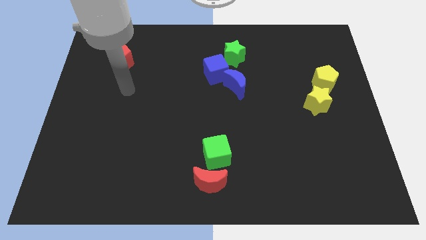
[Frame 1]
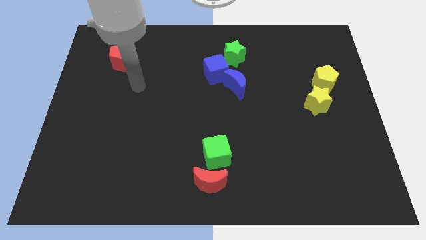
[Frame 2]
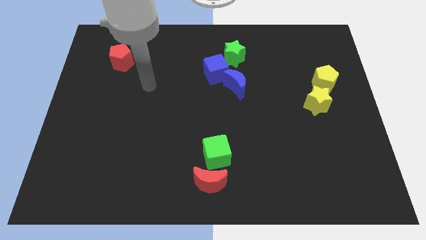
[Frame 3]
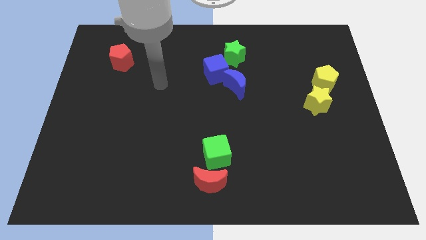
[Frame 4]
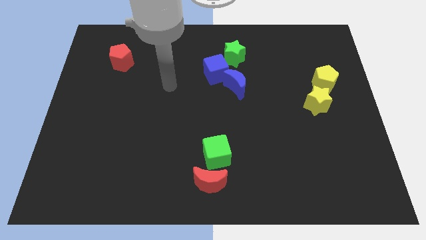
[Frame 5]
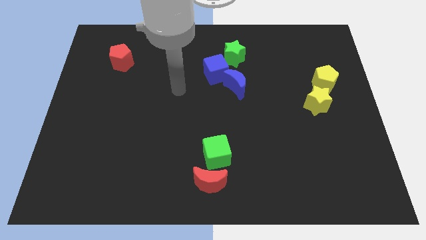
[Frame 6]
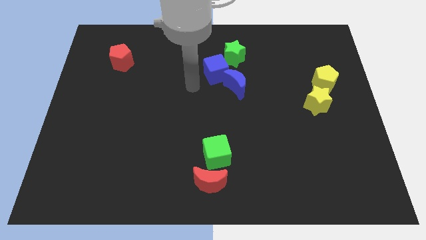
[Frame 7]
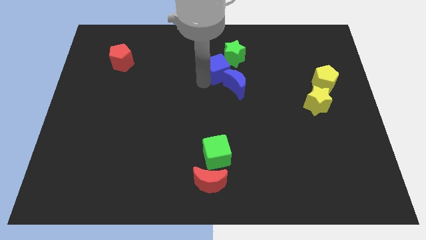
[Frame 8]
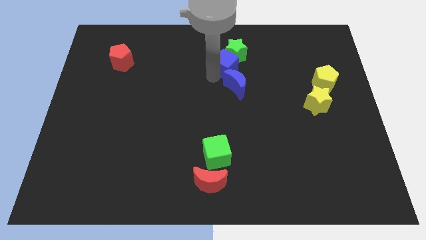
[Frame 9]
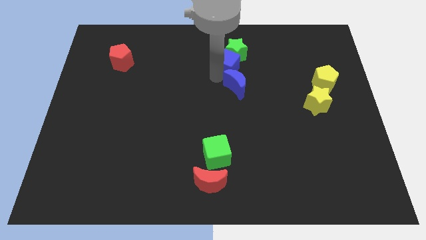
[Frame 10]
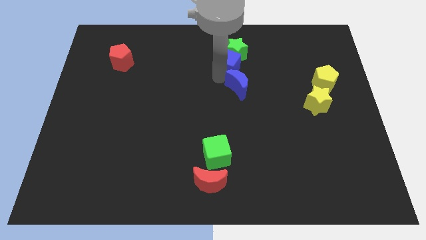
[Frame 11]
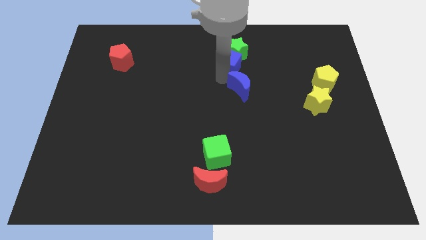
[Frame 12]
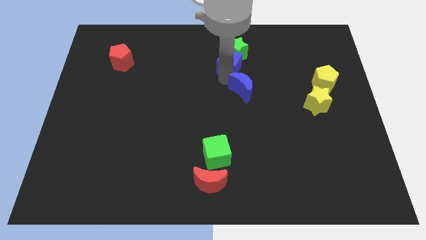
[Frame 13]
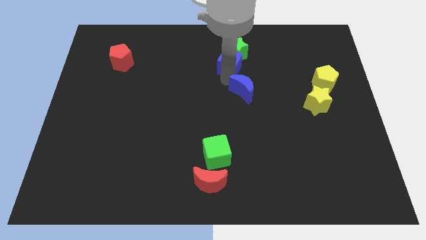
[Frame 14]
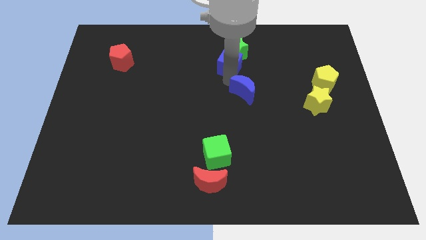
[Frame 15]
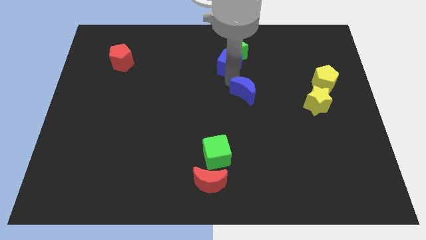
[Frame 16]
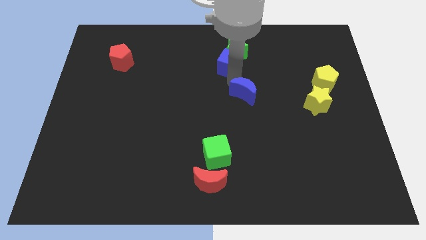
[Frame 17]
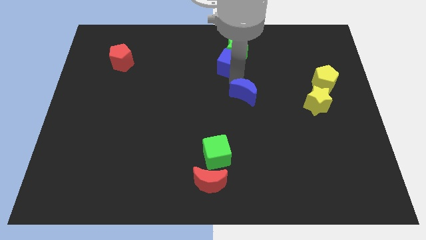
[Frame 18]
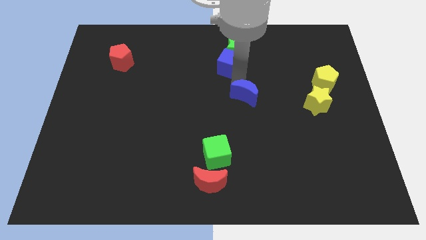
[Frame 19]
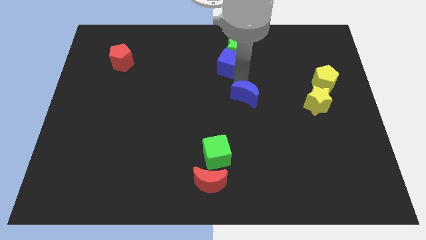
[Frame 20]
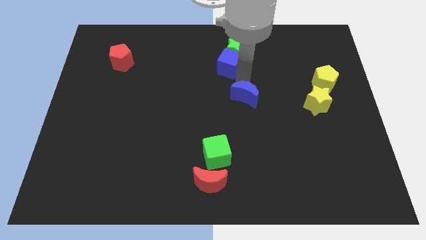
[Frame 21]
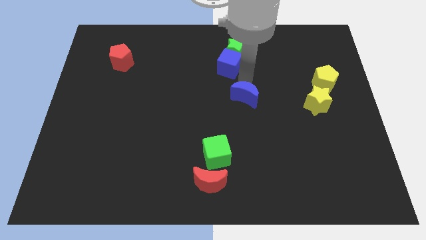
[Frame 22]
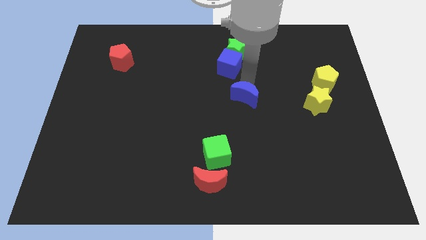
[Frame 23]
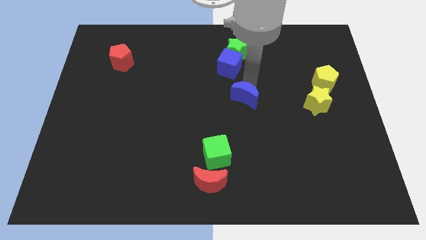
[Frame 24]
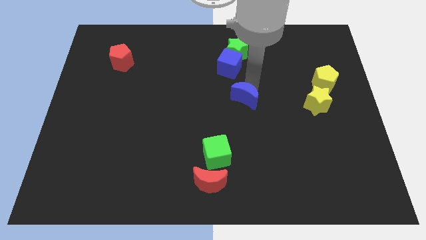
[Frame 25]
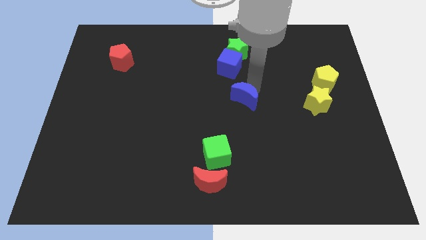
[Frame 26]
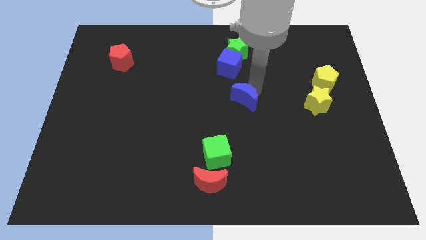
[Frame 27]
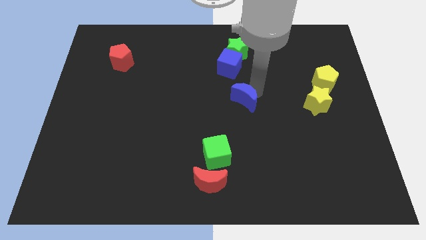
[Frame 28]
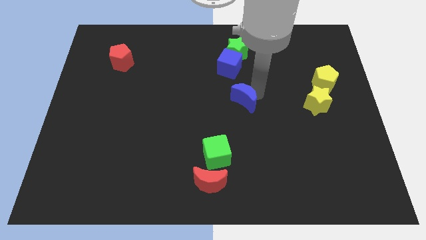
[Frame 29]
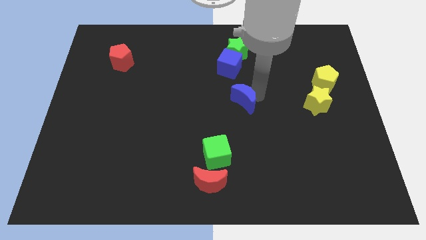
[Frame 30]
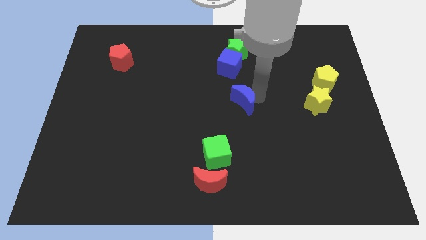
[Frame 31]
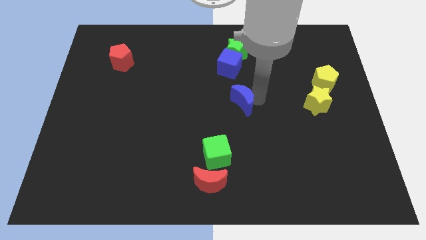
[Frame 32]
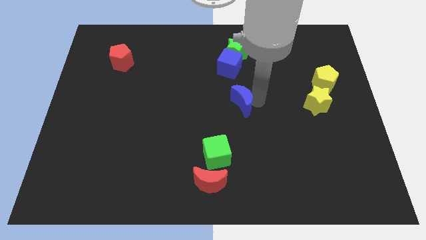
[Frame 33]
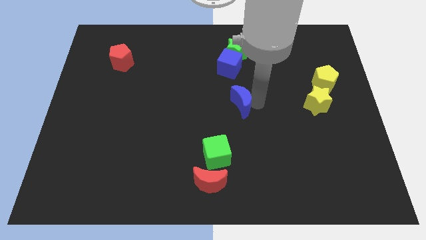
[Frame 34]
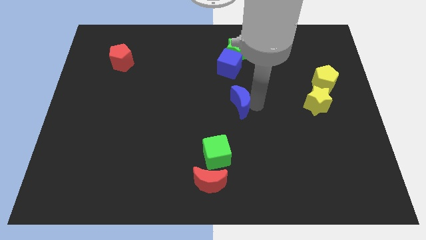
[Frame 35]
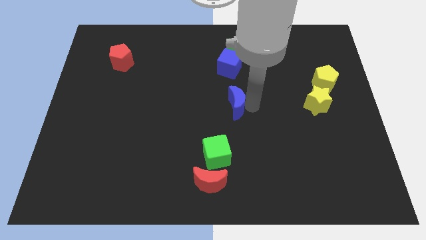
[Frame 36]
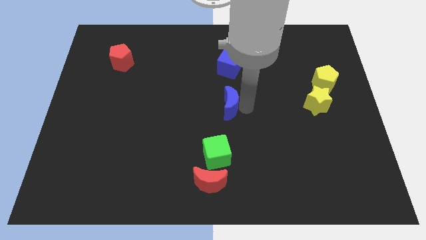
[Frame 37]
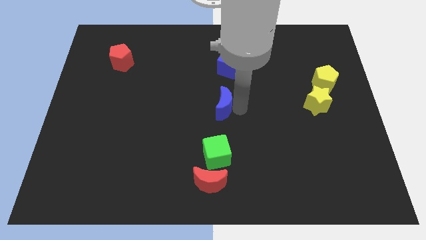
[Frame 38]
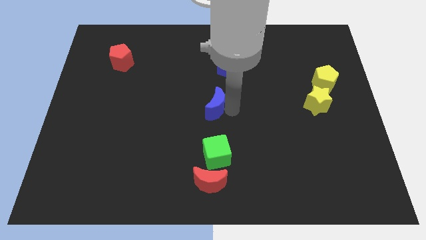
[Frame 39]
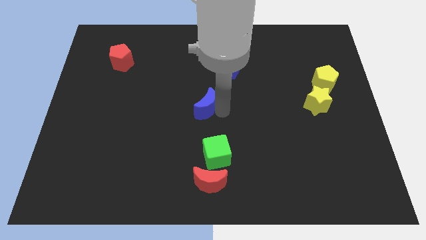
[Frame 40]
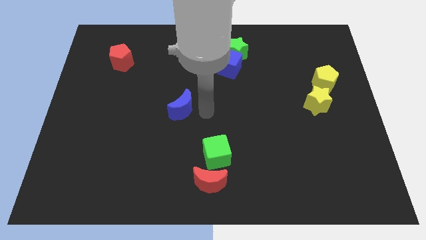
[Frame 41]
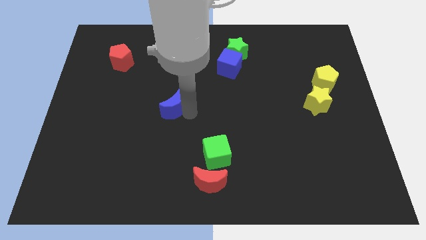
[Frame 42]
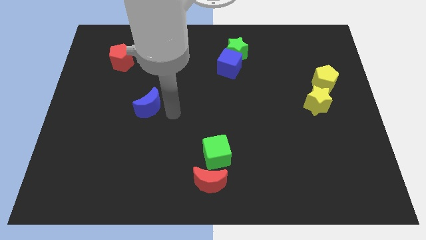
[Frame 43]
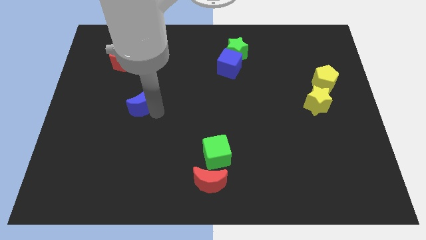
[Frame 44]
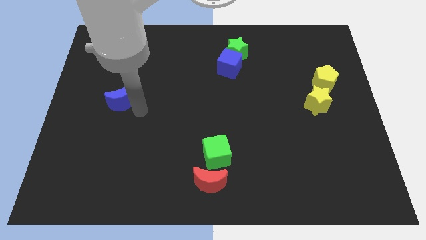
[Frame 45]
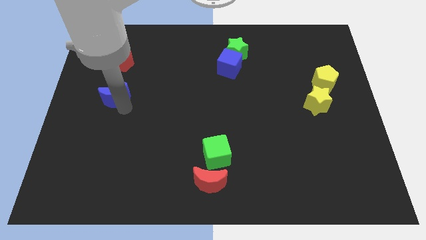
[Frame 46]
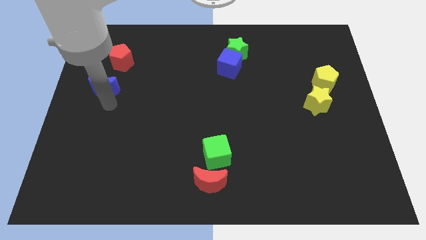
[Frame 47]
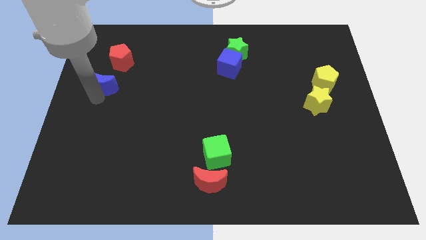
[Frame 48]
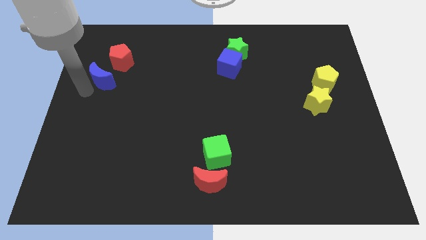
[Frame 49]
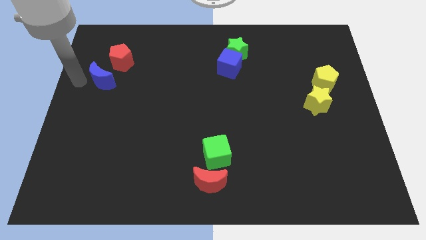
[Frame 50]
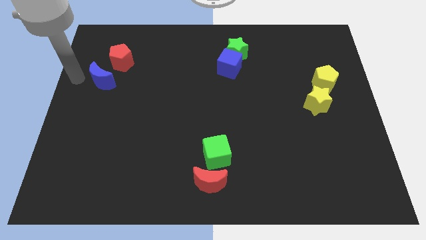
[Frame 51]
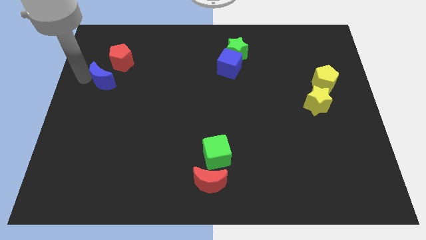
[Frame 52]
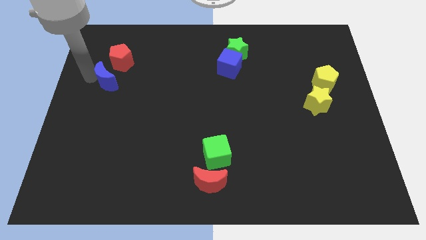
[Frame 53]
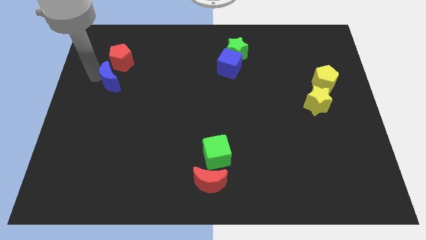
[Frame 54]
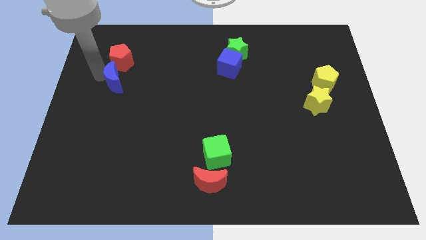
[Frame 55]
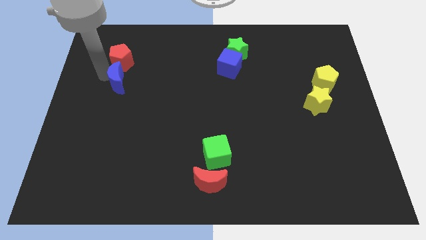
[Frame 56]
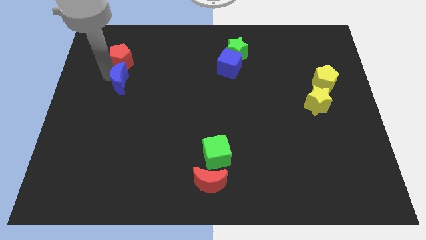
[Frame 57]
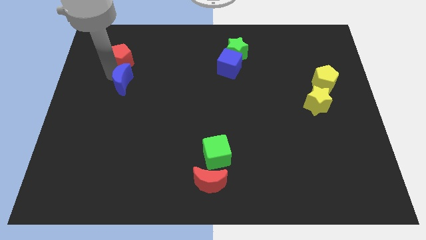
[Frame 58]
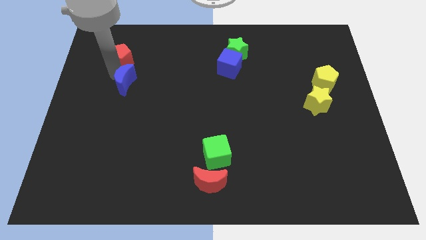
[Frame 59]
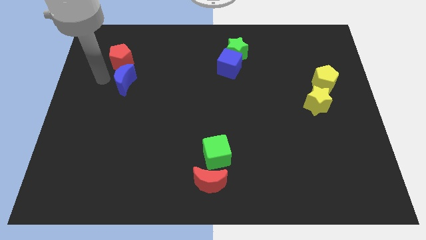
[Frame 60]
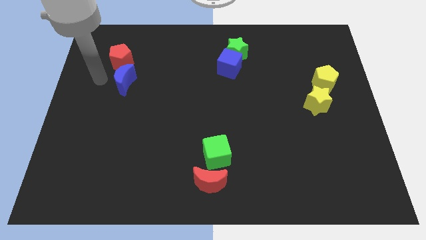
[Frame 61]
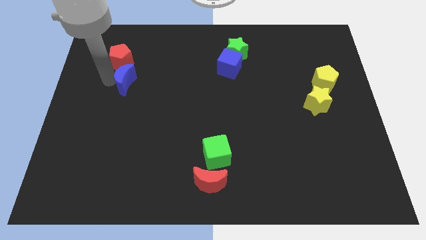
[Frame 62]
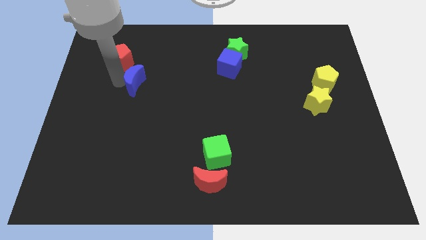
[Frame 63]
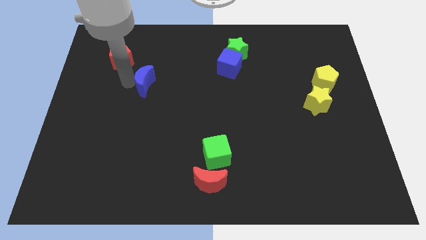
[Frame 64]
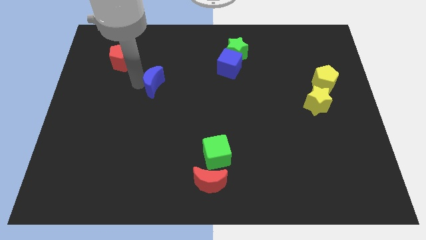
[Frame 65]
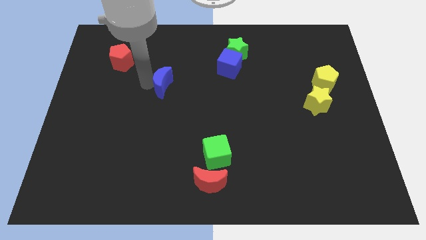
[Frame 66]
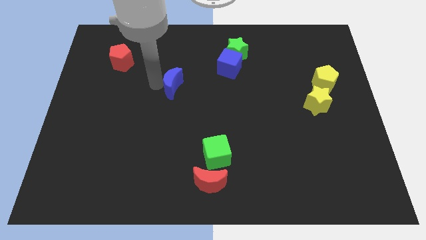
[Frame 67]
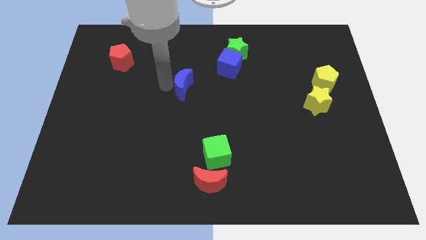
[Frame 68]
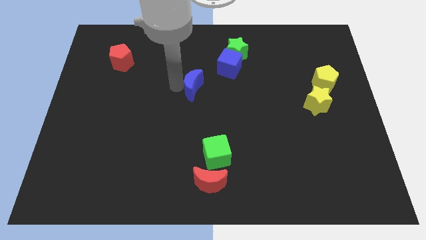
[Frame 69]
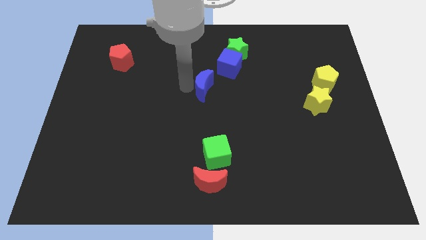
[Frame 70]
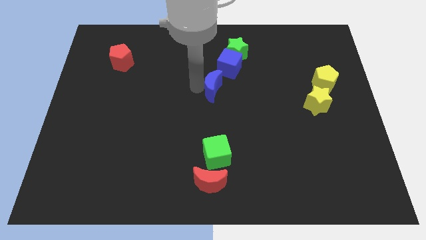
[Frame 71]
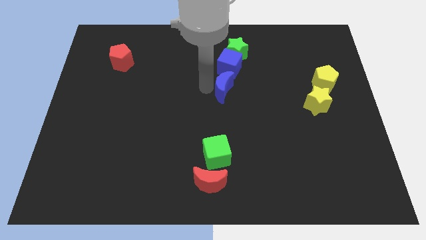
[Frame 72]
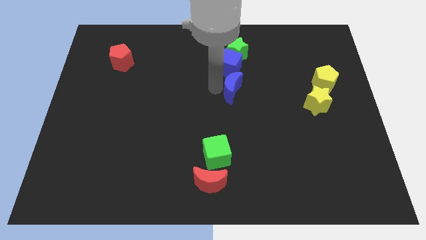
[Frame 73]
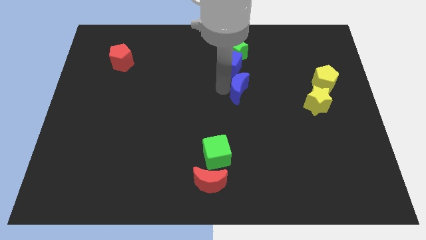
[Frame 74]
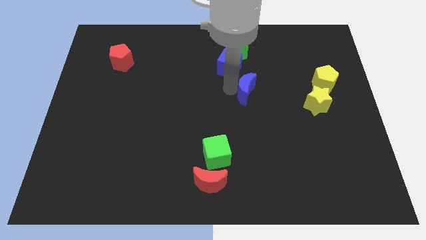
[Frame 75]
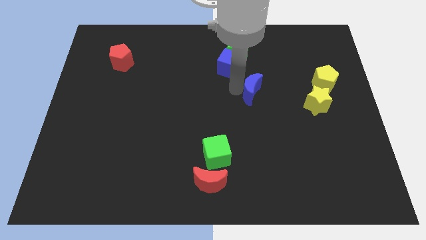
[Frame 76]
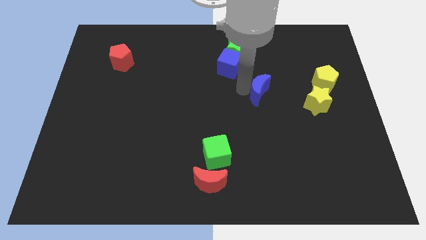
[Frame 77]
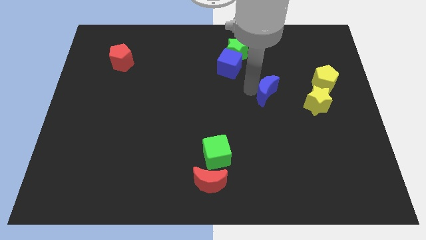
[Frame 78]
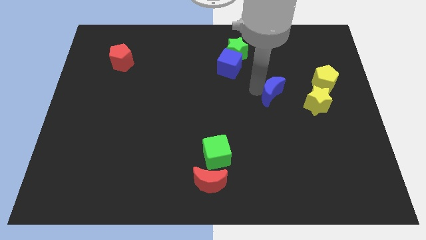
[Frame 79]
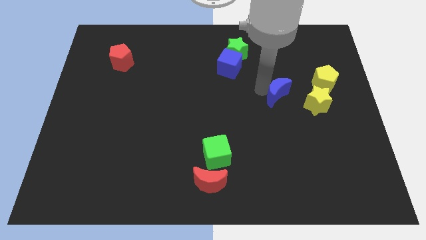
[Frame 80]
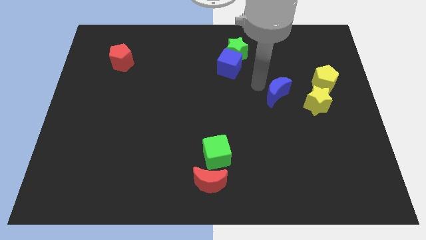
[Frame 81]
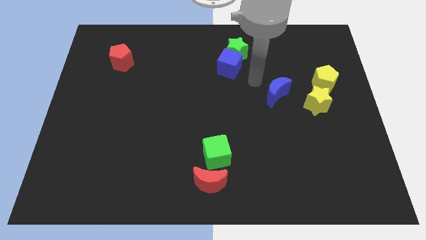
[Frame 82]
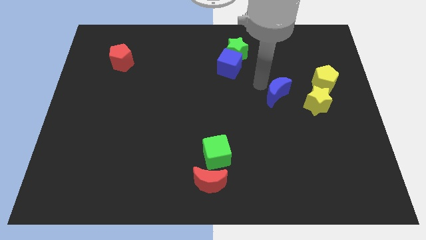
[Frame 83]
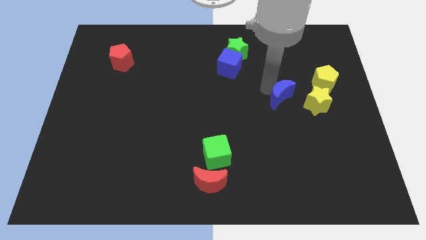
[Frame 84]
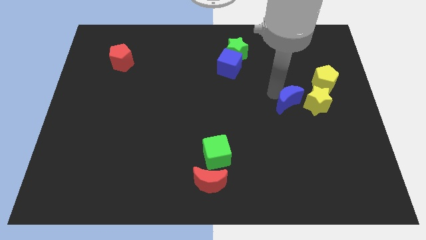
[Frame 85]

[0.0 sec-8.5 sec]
put the blue moon diagonally down and to the left of the yellow pentagon
